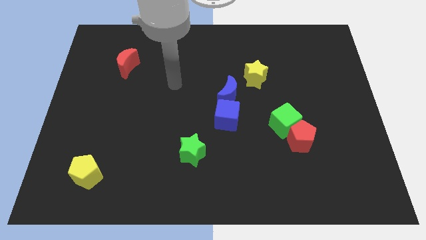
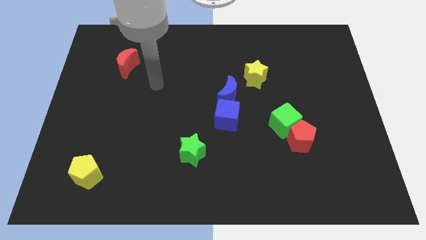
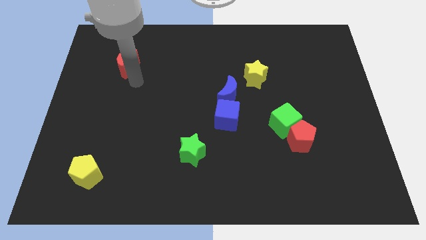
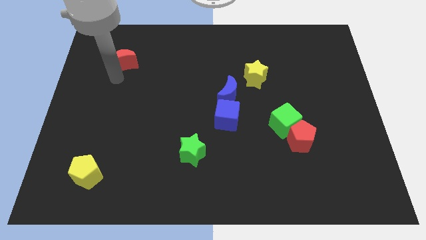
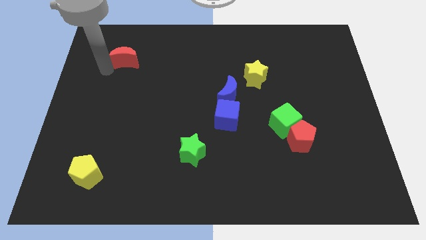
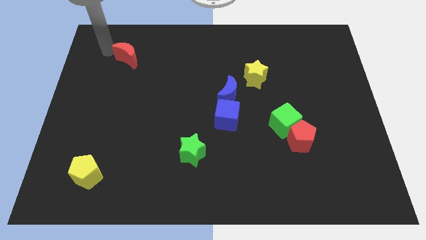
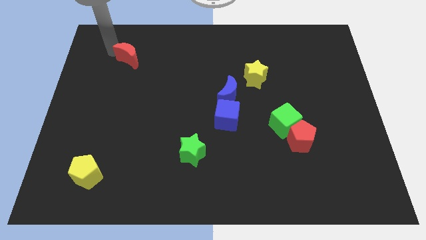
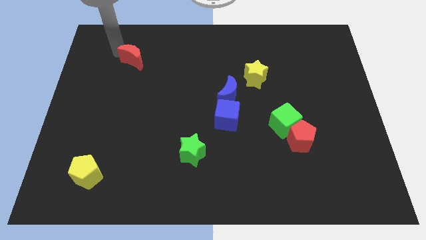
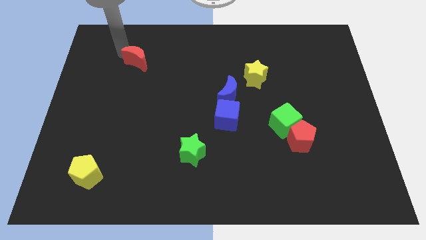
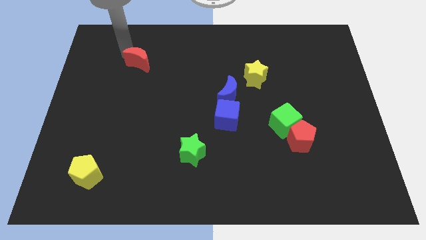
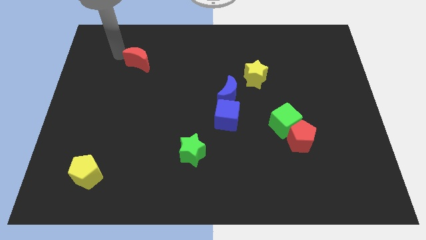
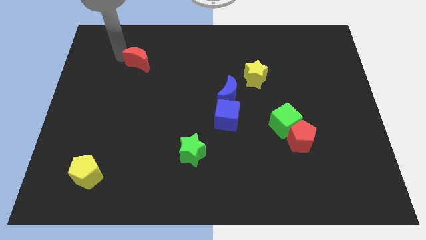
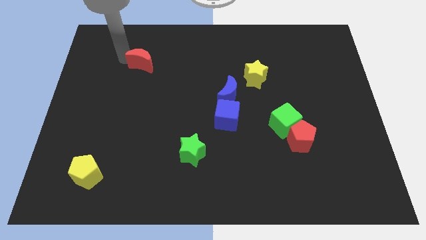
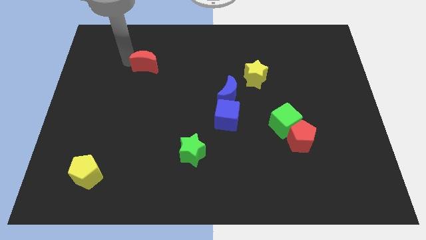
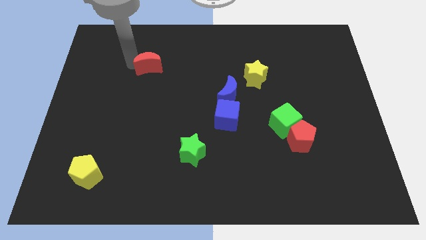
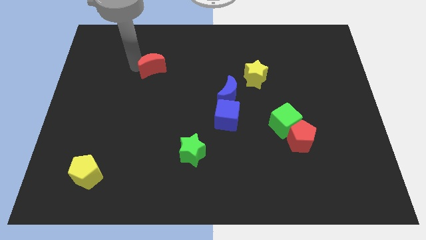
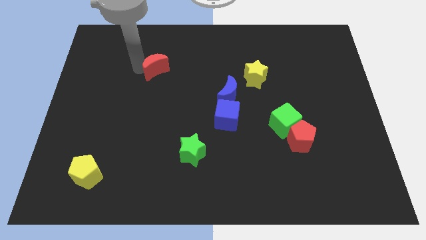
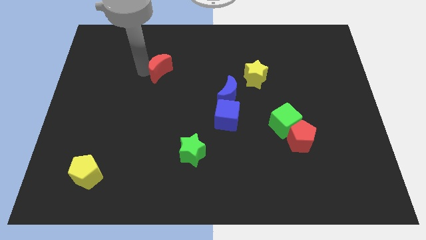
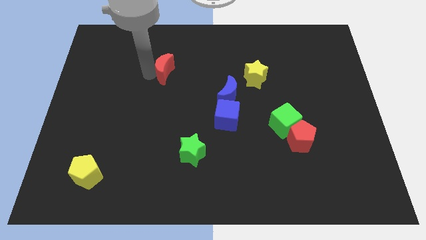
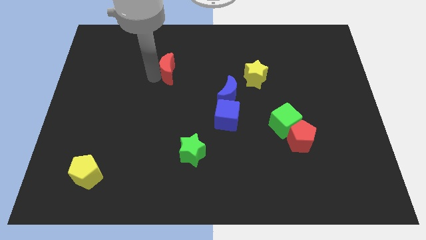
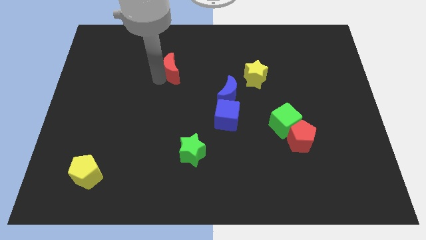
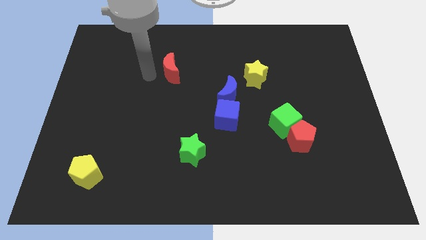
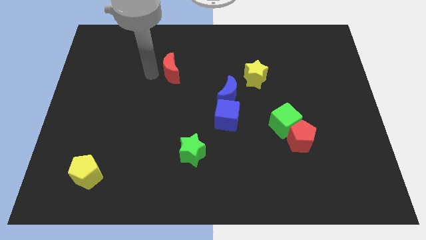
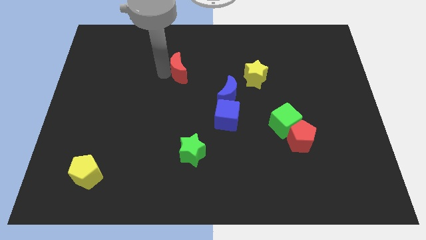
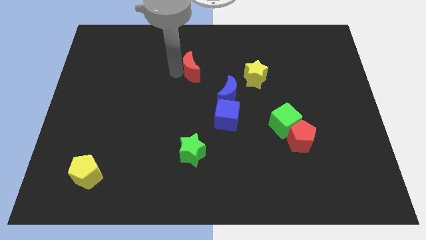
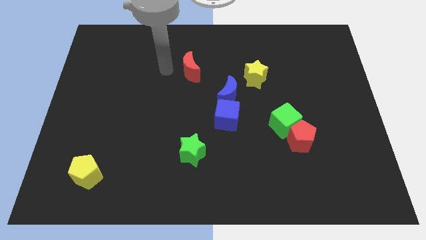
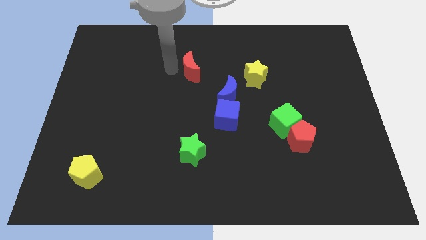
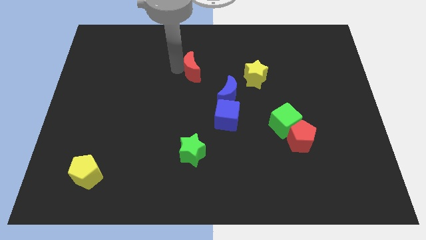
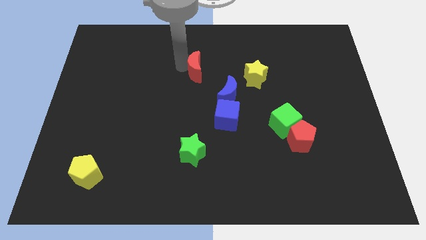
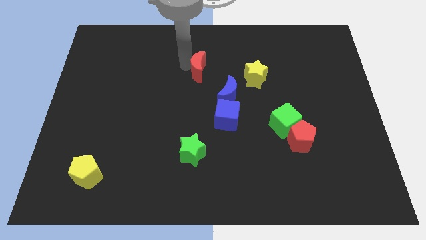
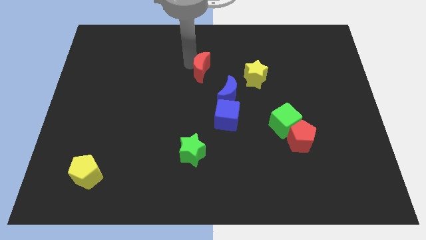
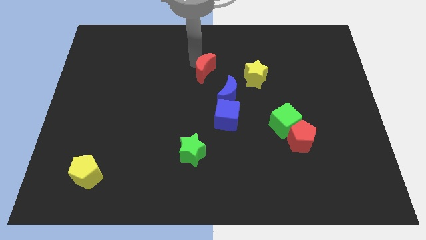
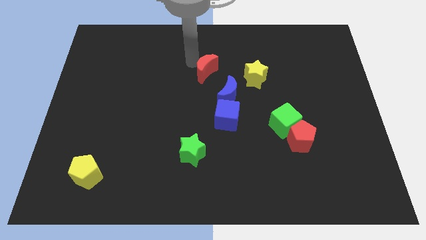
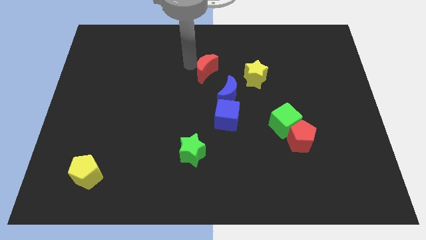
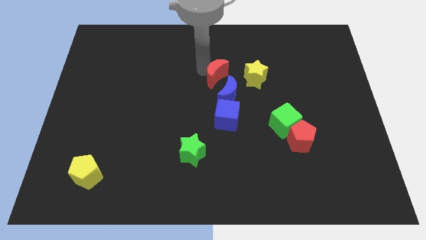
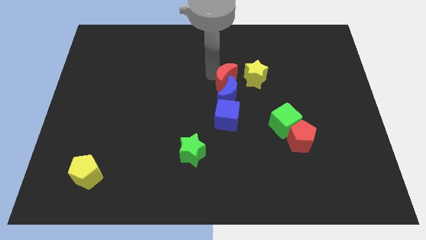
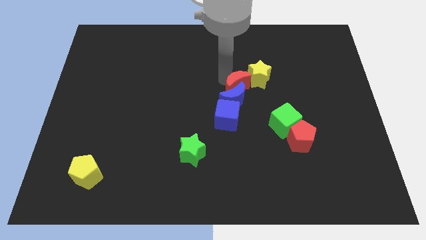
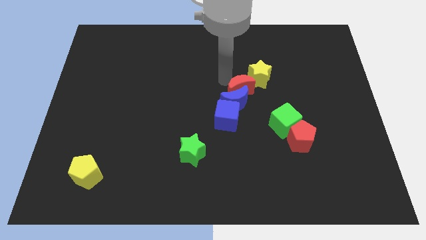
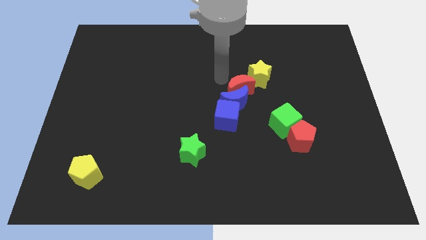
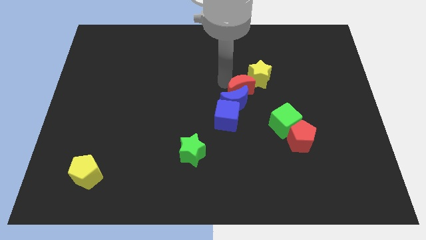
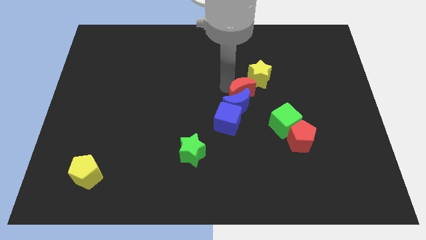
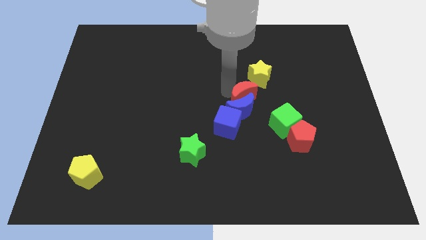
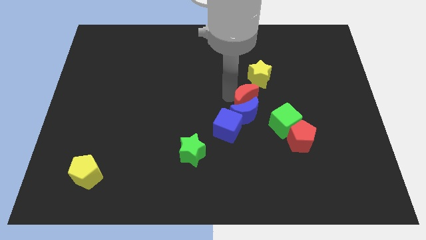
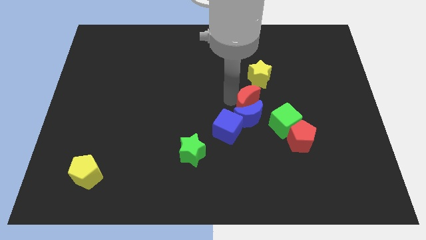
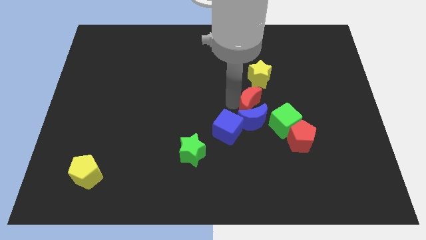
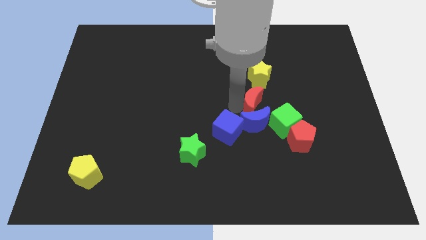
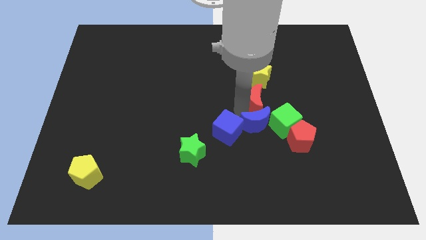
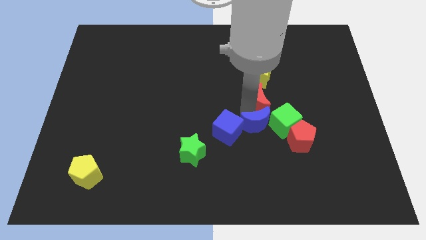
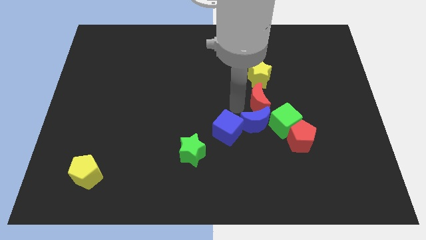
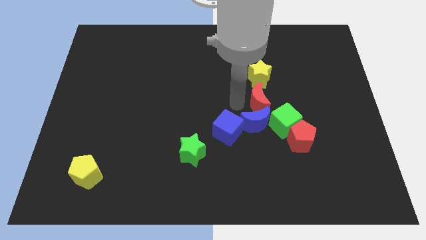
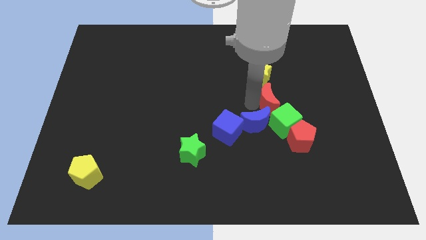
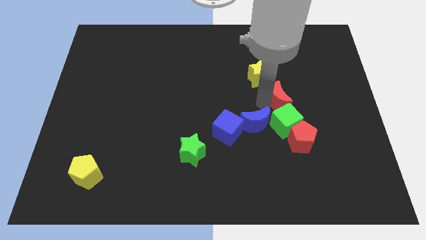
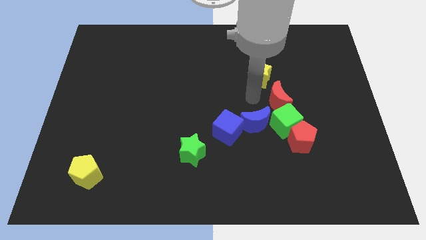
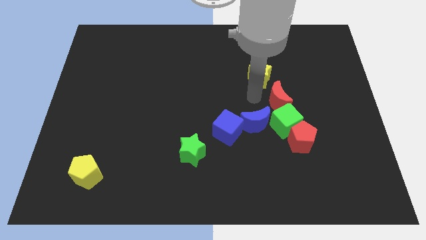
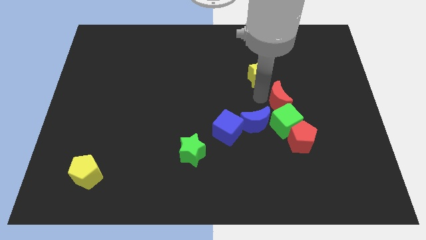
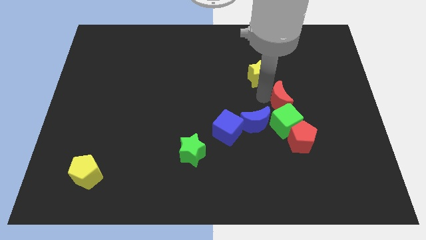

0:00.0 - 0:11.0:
move the red moon diagonally up and to the right of the green cube

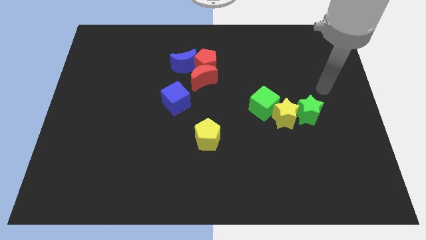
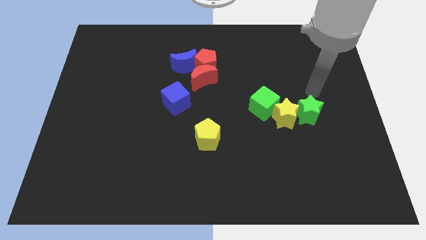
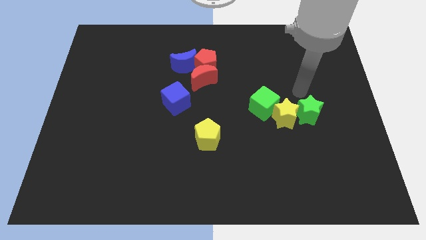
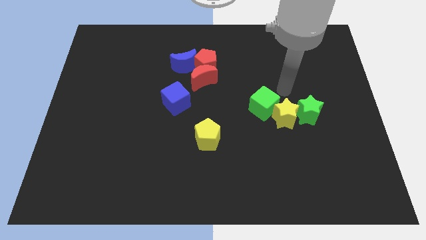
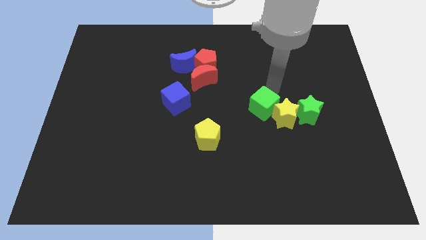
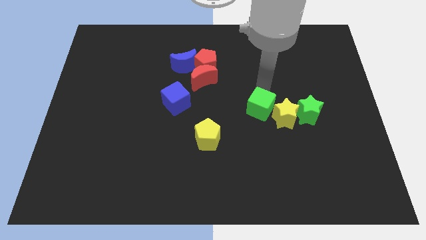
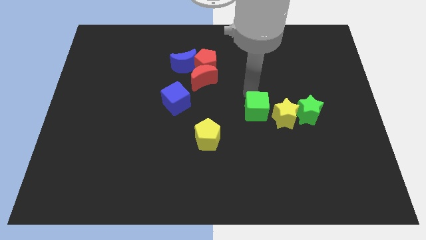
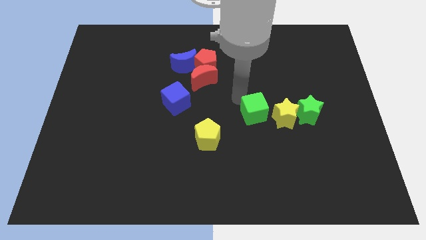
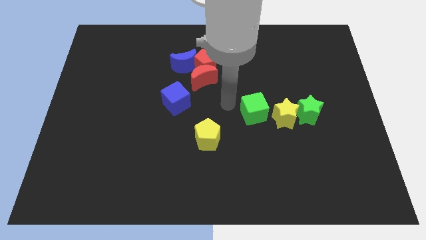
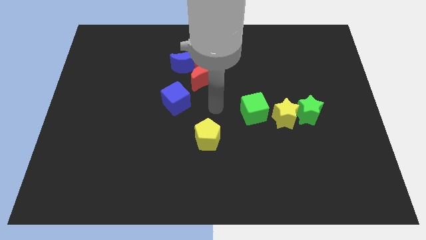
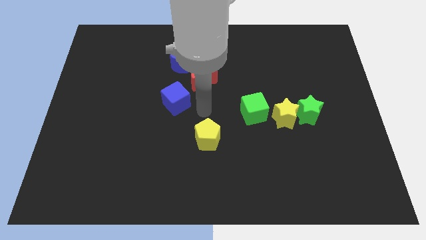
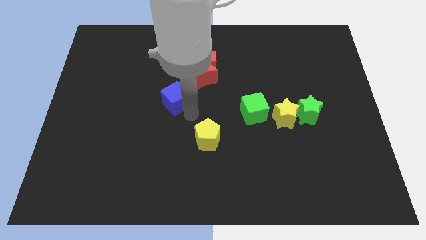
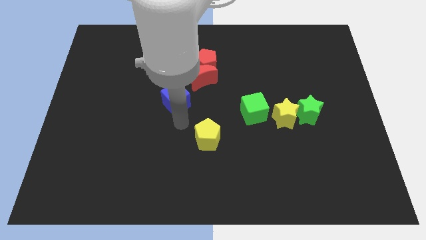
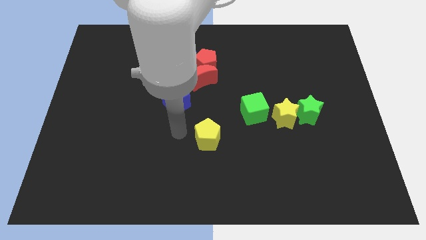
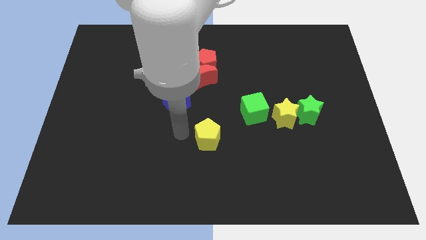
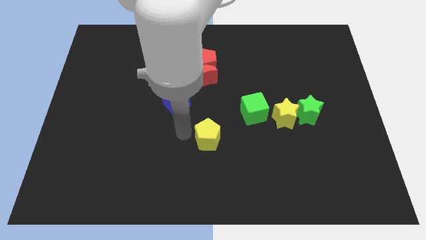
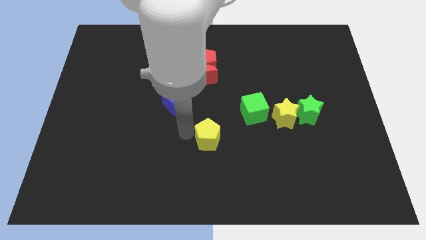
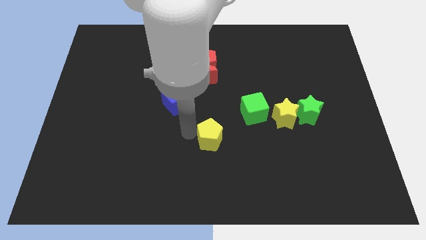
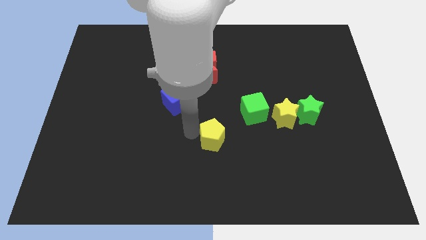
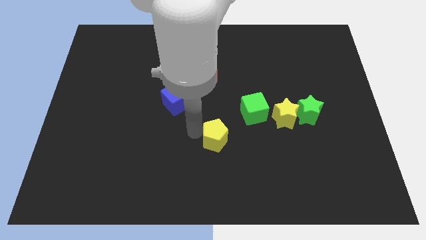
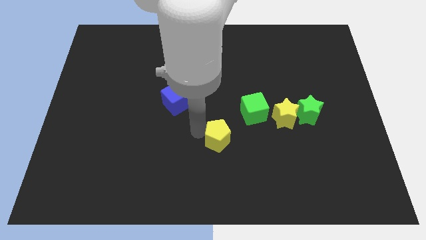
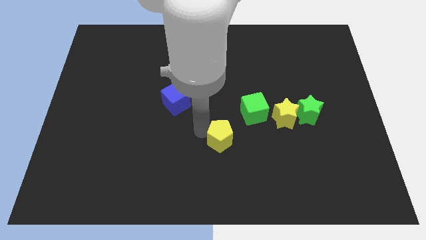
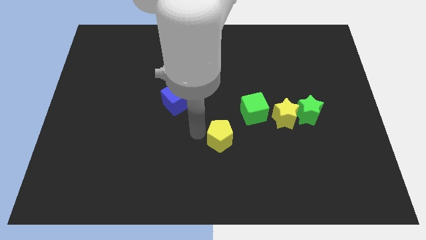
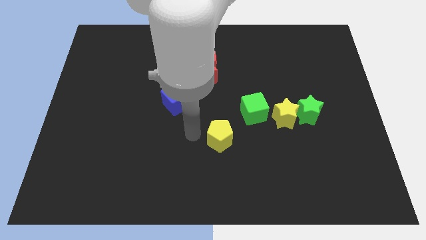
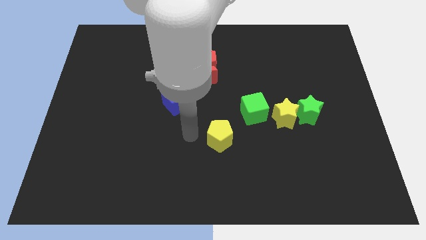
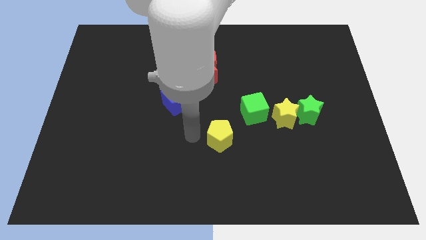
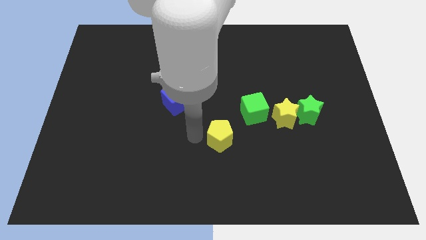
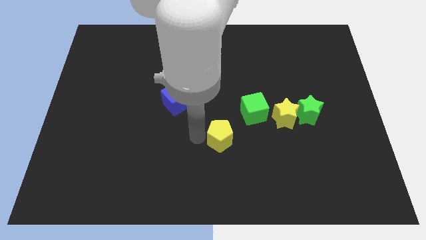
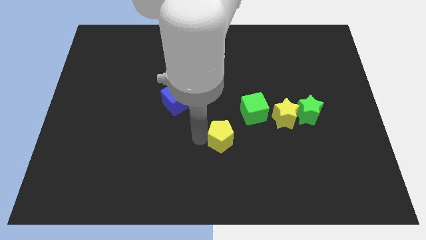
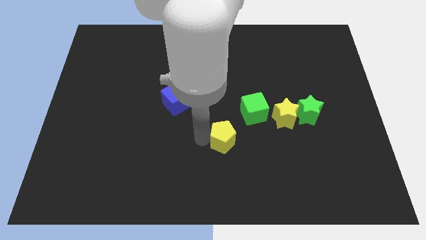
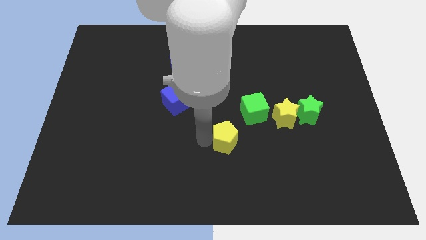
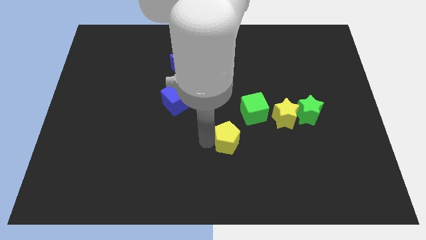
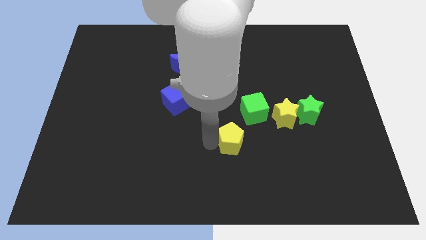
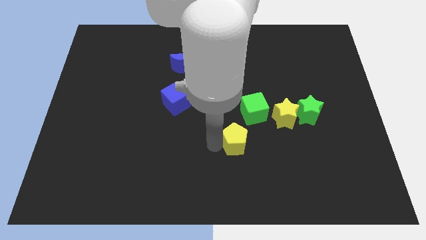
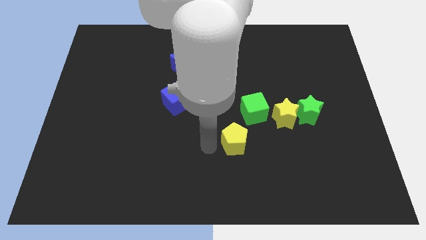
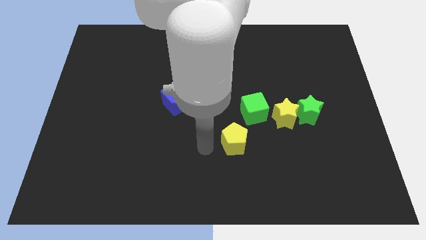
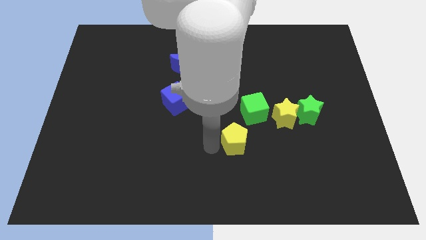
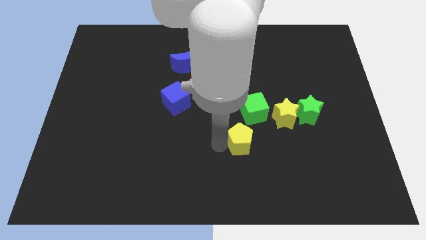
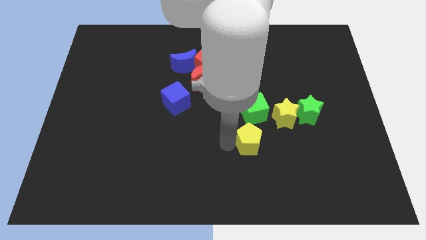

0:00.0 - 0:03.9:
put the yellow pentagon to the bottom left side of the yellow star
